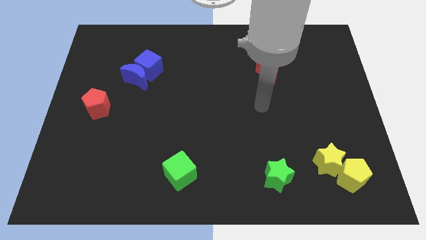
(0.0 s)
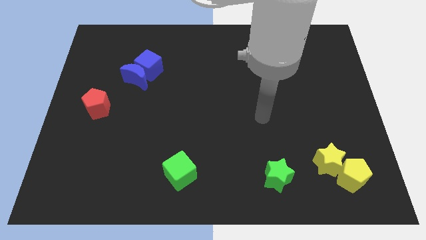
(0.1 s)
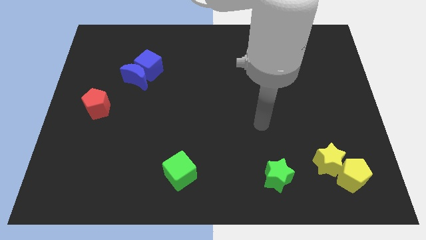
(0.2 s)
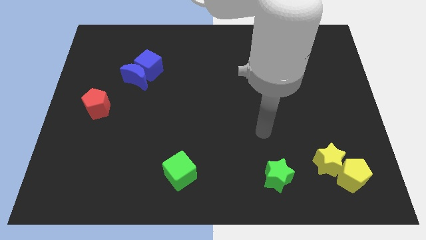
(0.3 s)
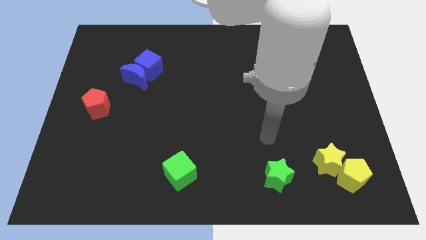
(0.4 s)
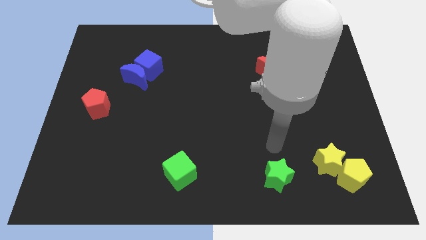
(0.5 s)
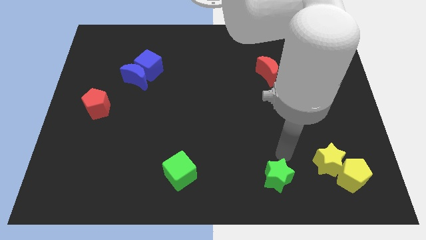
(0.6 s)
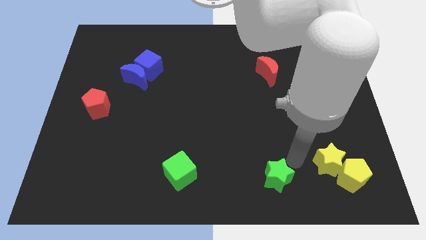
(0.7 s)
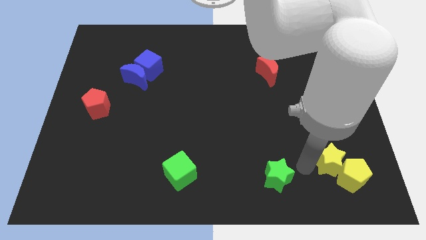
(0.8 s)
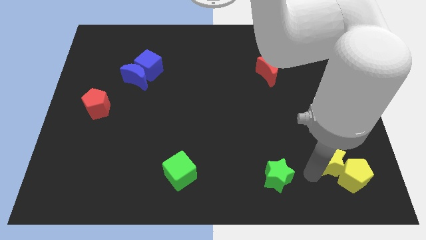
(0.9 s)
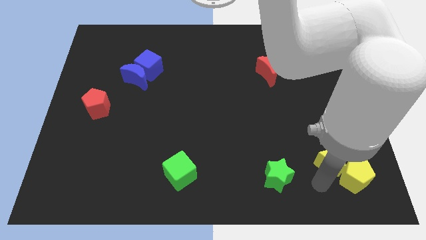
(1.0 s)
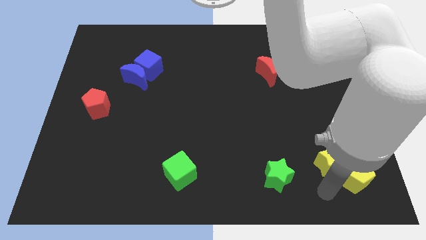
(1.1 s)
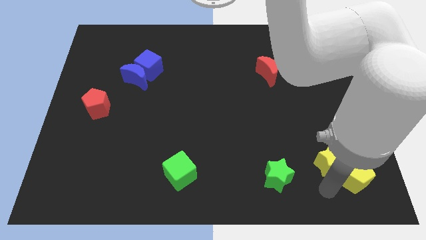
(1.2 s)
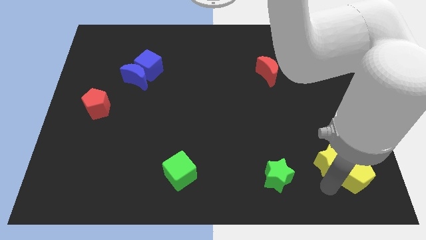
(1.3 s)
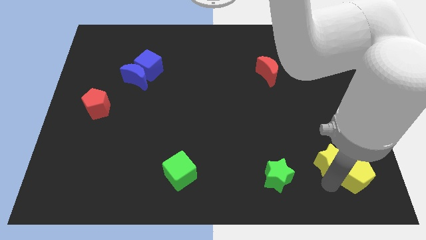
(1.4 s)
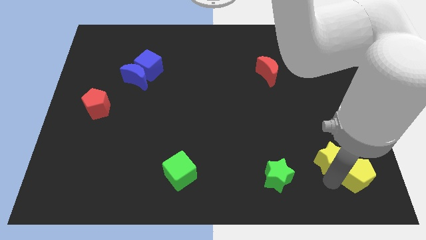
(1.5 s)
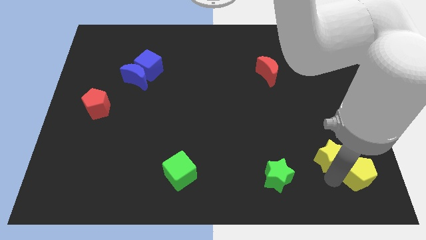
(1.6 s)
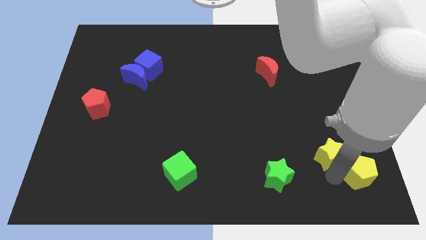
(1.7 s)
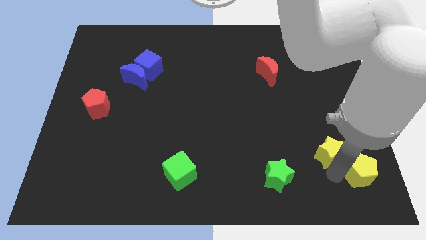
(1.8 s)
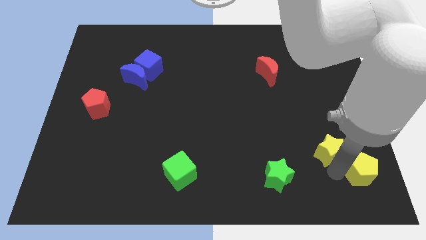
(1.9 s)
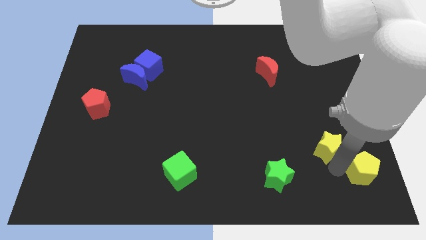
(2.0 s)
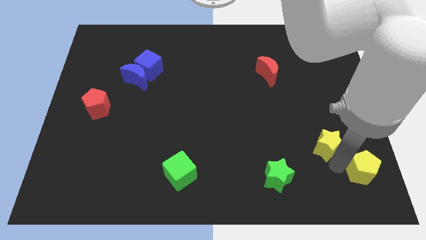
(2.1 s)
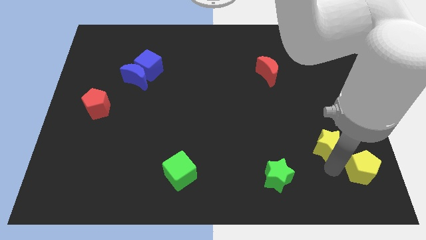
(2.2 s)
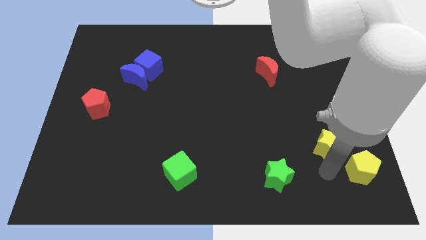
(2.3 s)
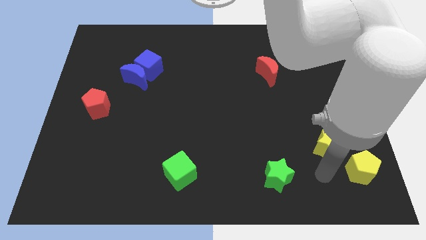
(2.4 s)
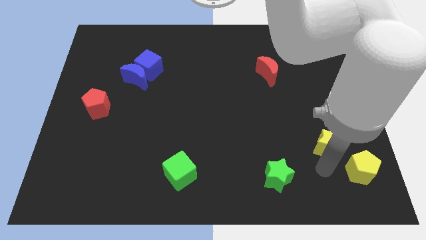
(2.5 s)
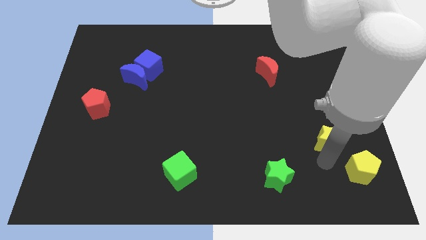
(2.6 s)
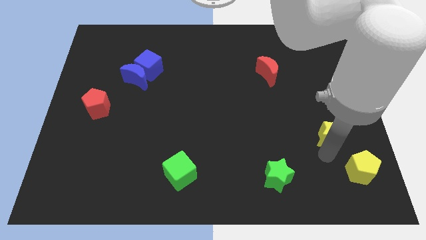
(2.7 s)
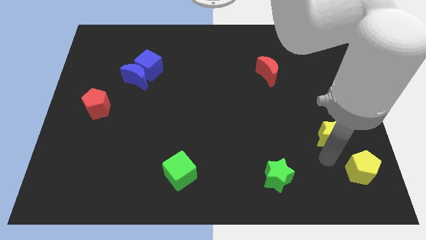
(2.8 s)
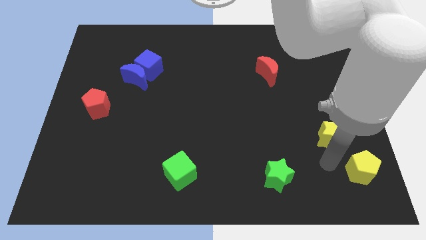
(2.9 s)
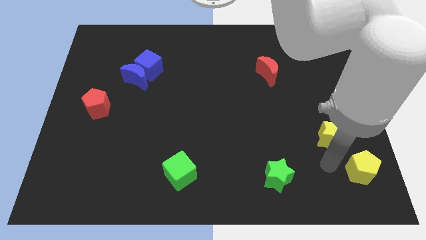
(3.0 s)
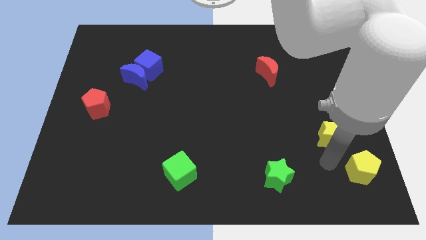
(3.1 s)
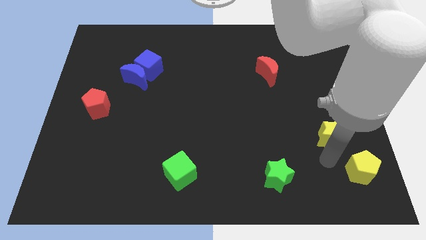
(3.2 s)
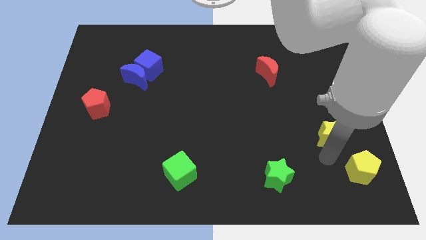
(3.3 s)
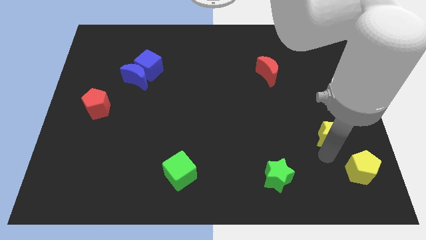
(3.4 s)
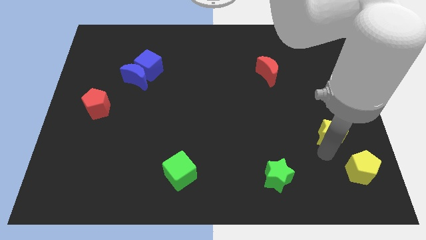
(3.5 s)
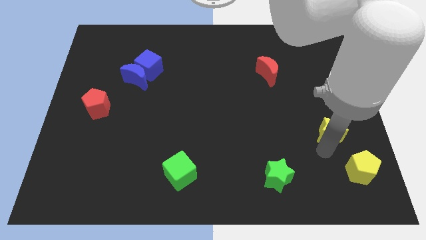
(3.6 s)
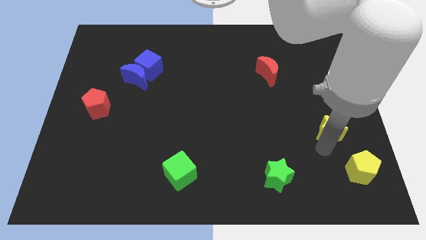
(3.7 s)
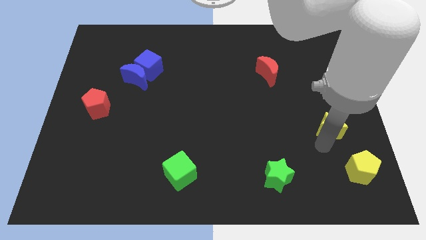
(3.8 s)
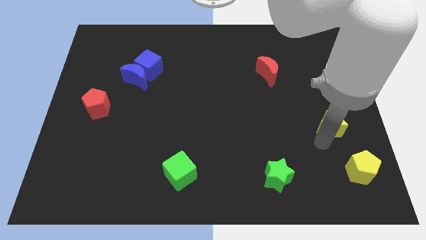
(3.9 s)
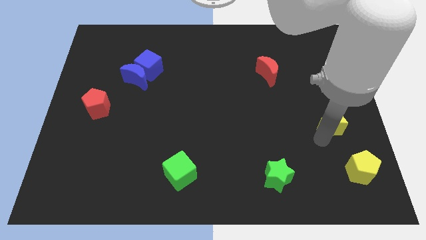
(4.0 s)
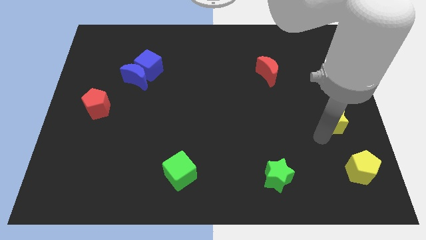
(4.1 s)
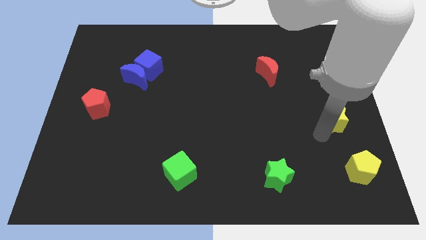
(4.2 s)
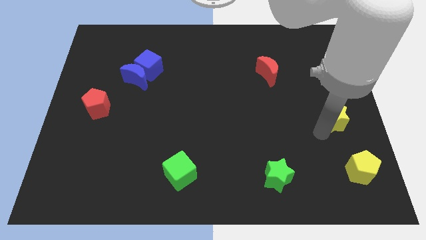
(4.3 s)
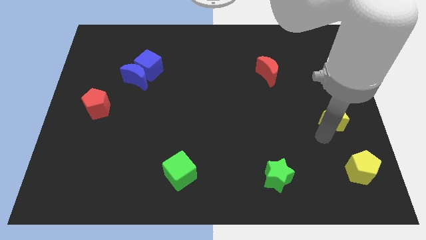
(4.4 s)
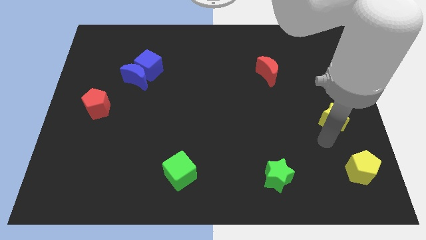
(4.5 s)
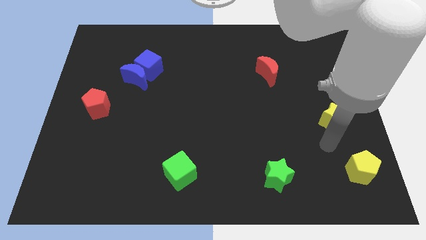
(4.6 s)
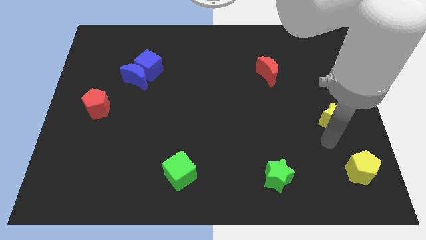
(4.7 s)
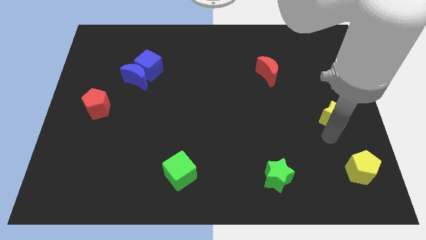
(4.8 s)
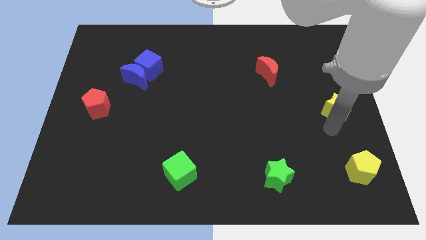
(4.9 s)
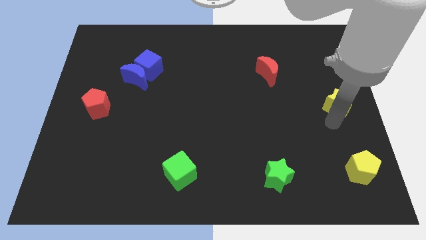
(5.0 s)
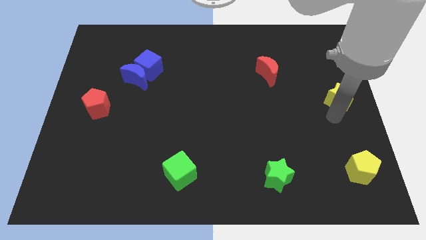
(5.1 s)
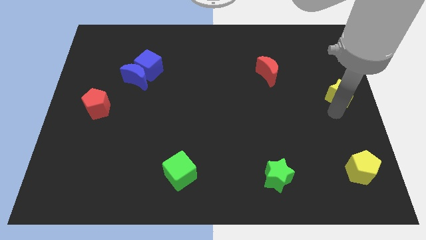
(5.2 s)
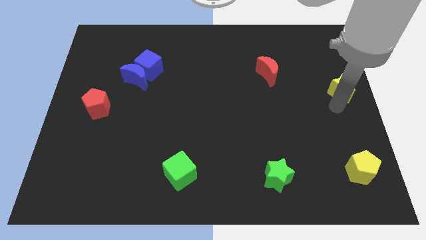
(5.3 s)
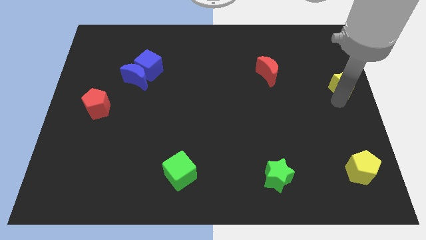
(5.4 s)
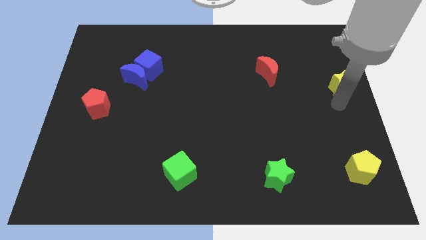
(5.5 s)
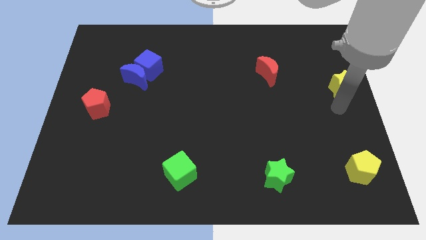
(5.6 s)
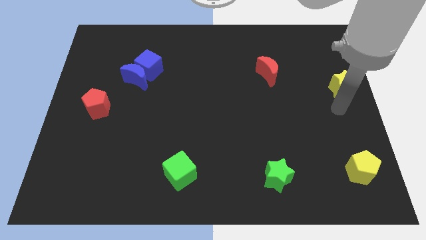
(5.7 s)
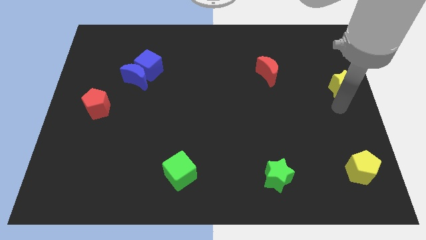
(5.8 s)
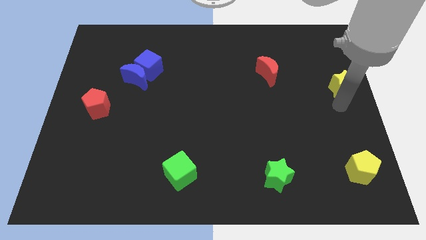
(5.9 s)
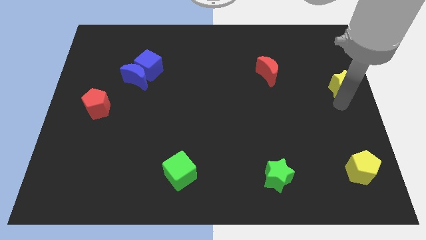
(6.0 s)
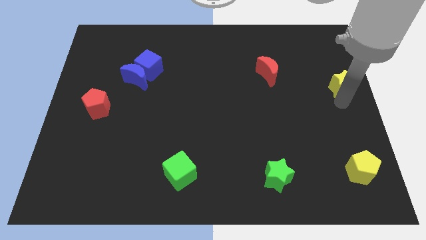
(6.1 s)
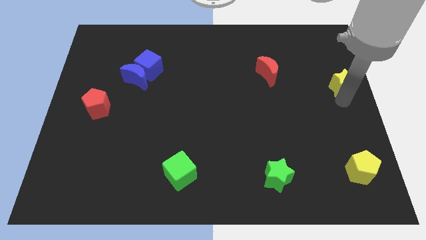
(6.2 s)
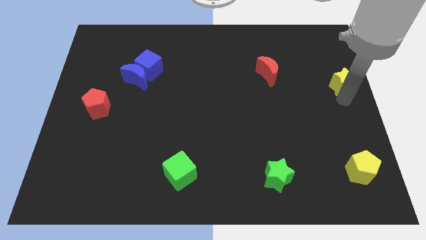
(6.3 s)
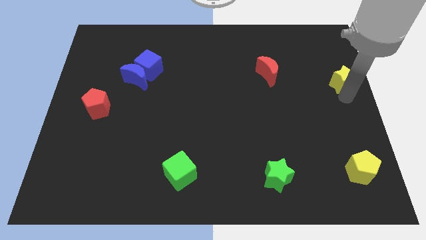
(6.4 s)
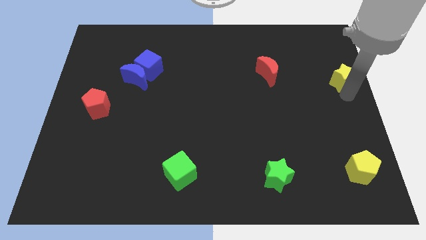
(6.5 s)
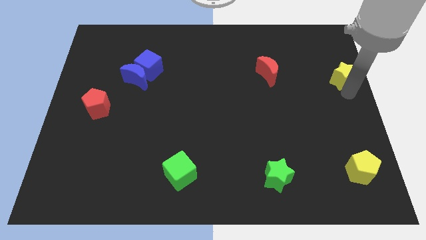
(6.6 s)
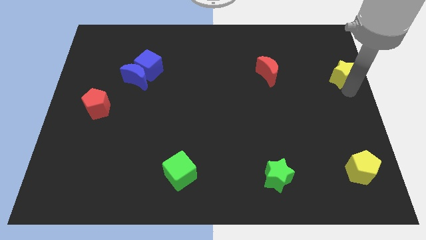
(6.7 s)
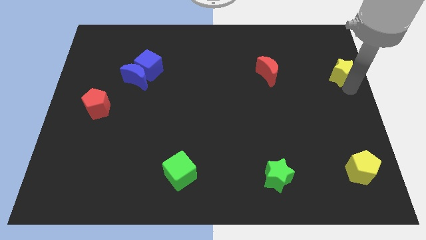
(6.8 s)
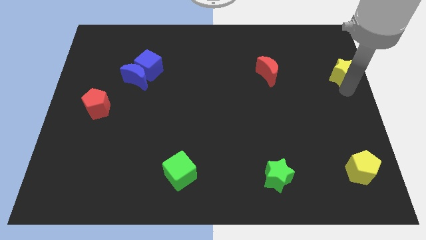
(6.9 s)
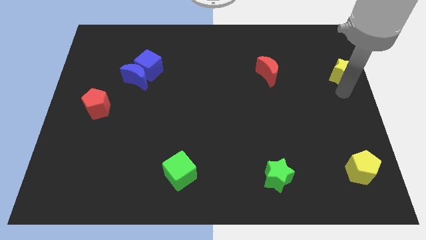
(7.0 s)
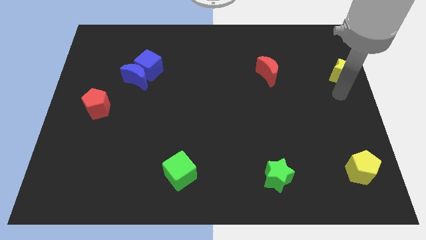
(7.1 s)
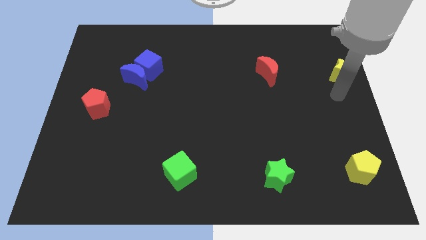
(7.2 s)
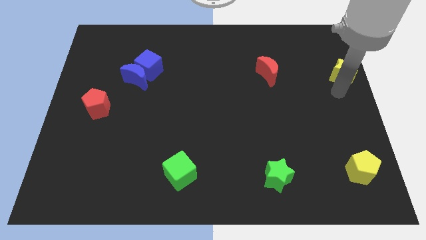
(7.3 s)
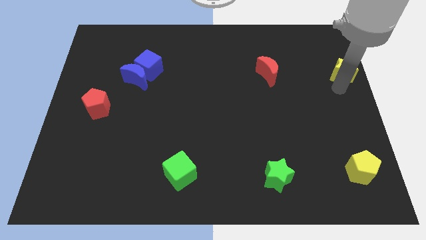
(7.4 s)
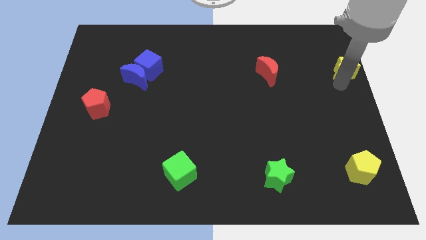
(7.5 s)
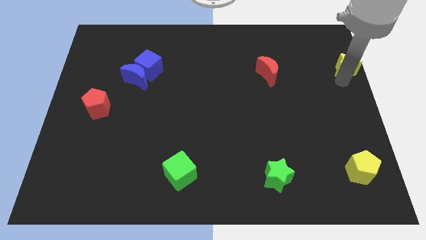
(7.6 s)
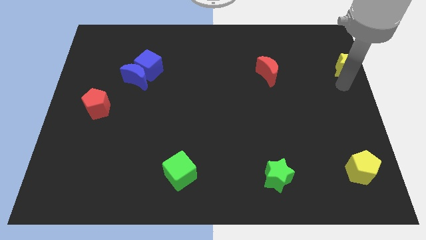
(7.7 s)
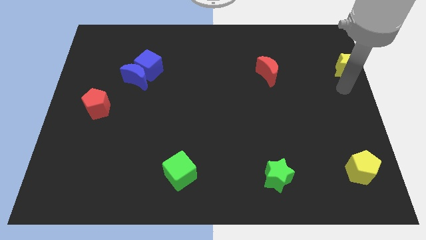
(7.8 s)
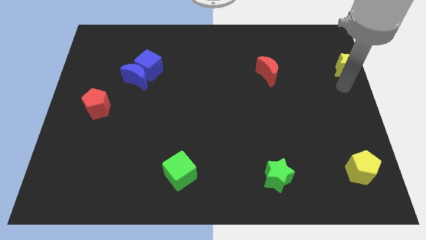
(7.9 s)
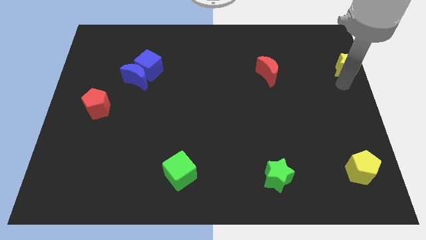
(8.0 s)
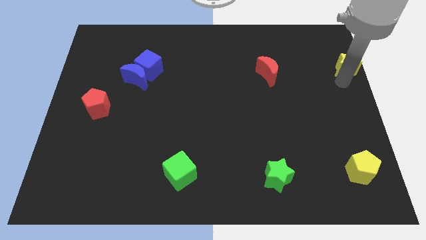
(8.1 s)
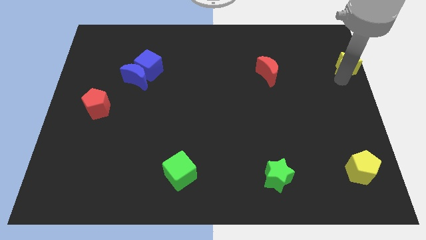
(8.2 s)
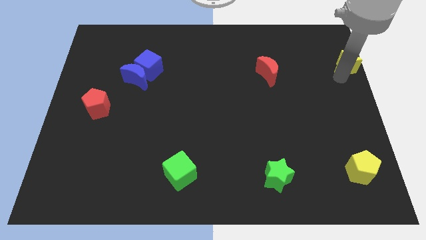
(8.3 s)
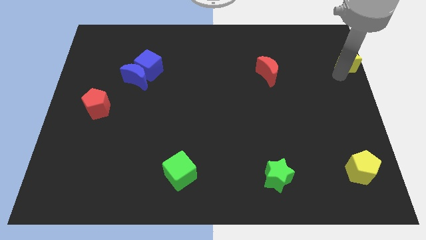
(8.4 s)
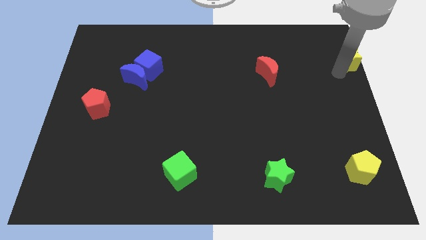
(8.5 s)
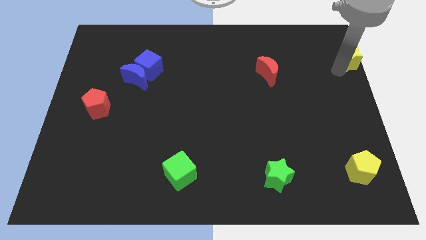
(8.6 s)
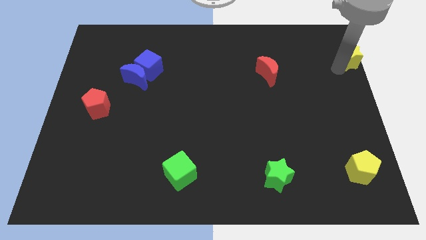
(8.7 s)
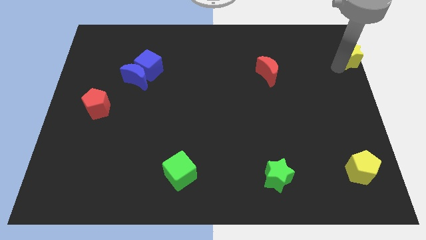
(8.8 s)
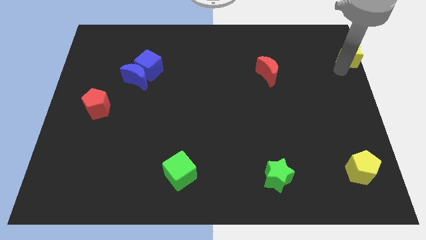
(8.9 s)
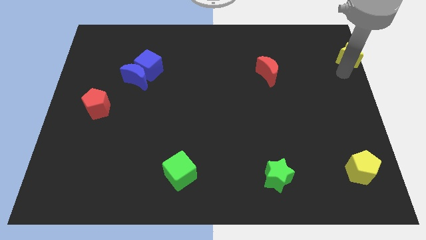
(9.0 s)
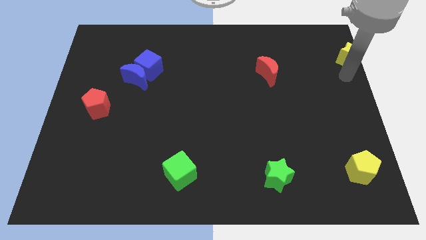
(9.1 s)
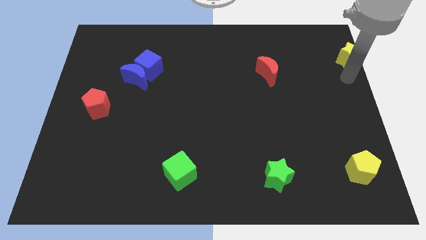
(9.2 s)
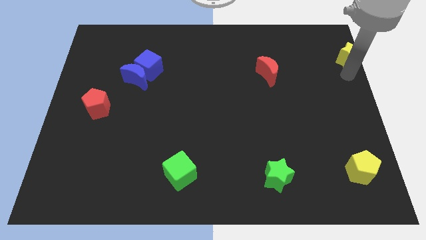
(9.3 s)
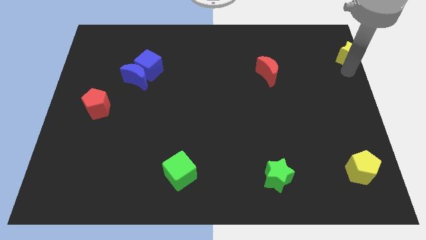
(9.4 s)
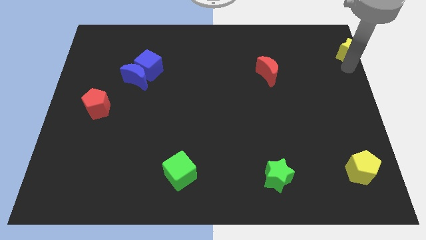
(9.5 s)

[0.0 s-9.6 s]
slide the yellow star to the top right of the board
